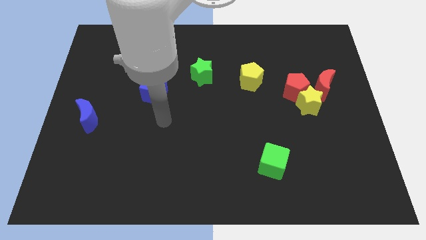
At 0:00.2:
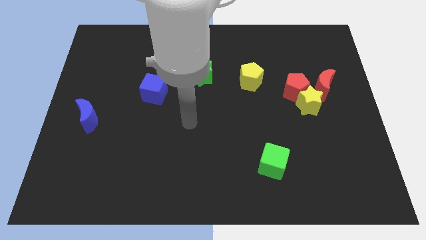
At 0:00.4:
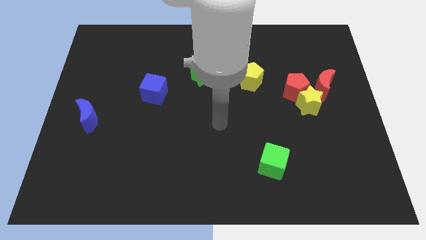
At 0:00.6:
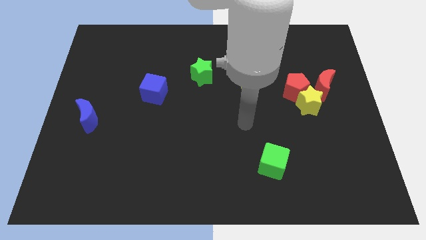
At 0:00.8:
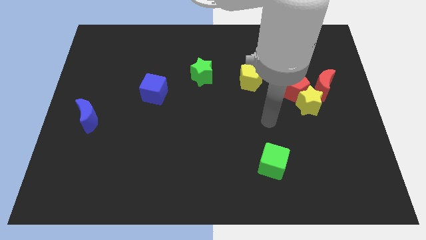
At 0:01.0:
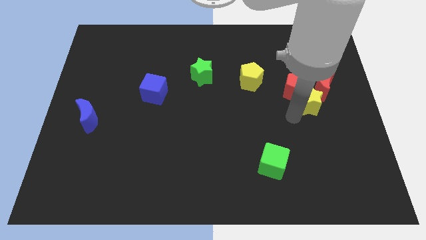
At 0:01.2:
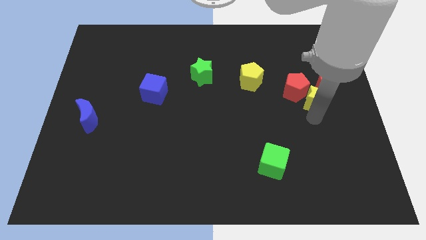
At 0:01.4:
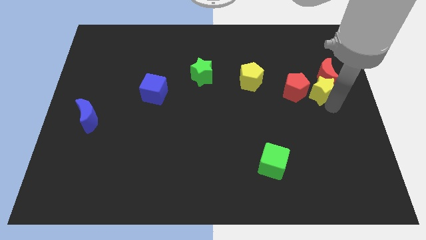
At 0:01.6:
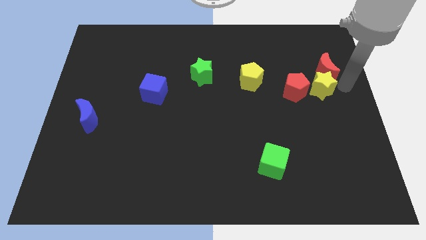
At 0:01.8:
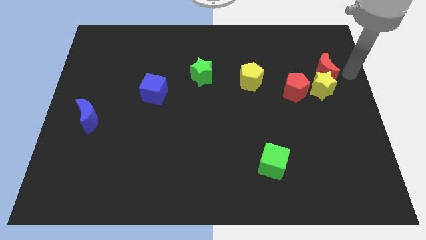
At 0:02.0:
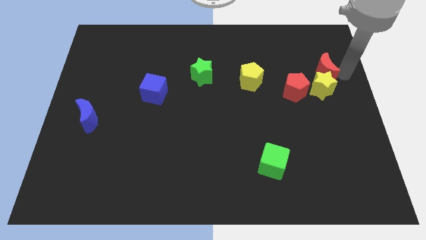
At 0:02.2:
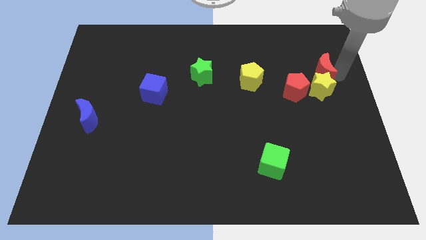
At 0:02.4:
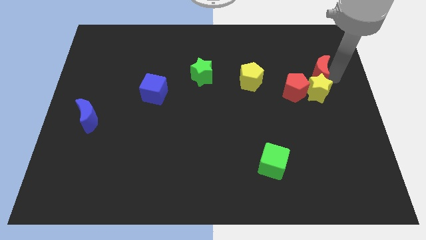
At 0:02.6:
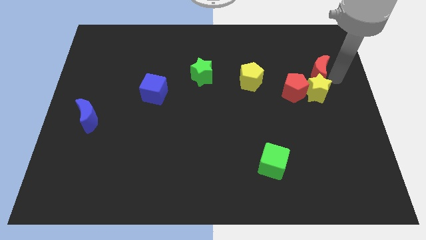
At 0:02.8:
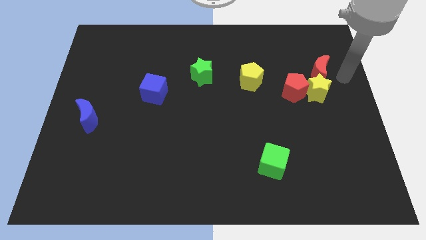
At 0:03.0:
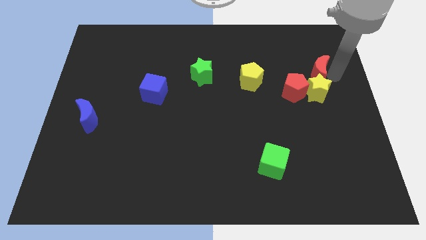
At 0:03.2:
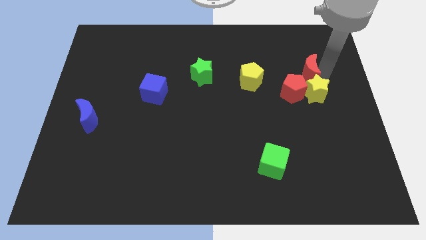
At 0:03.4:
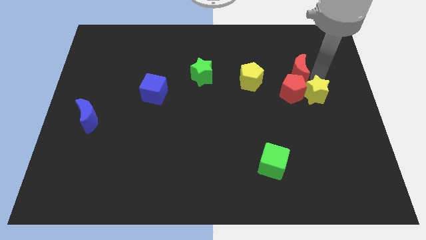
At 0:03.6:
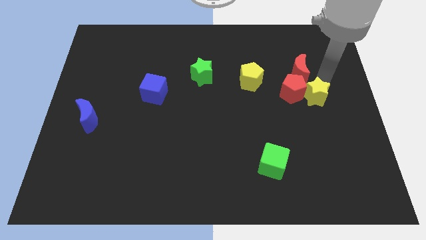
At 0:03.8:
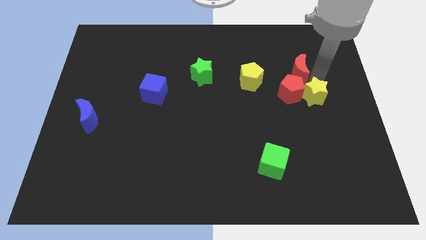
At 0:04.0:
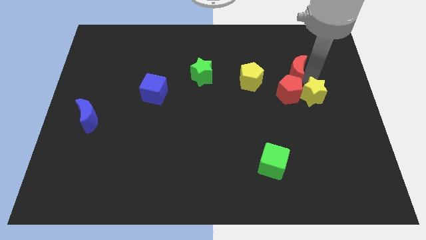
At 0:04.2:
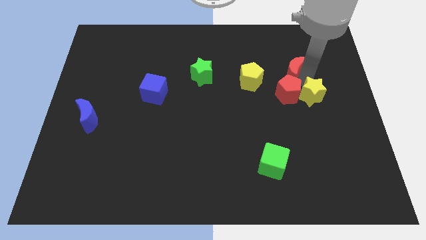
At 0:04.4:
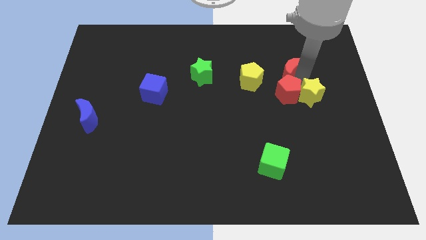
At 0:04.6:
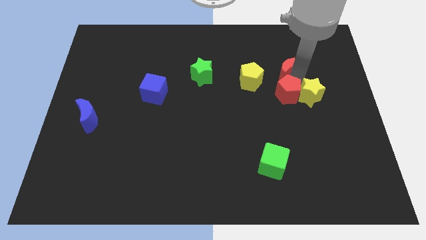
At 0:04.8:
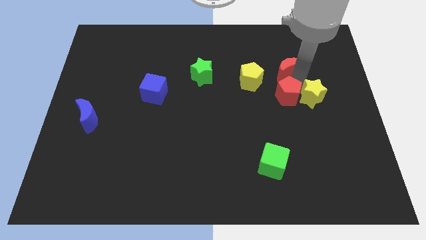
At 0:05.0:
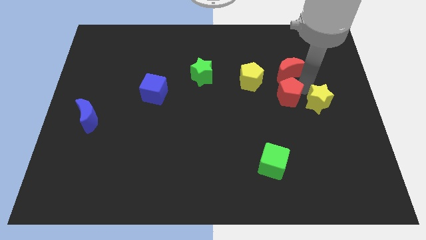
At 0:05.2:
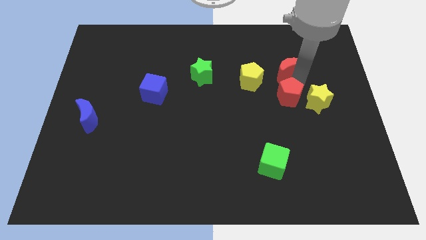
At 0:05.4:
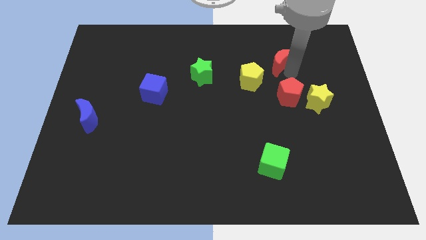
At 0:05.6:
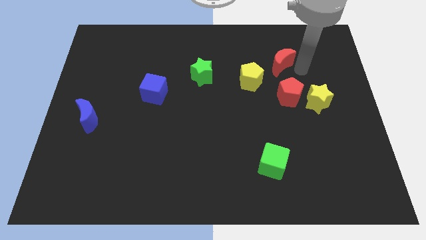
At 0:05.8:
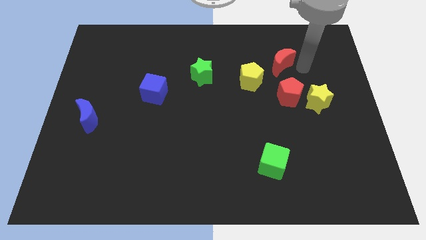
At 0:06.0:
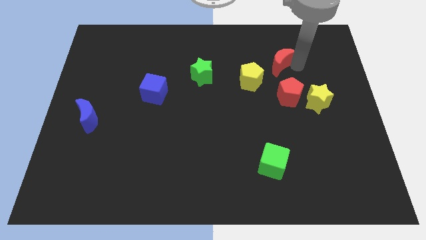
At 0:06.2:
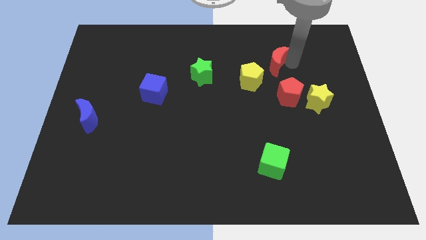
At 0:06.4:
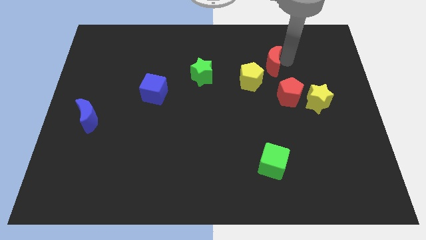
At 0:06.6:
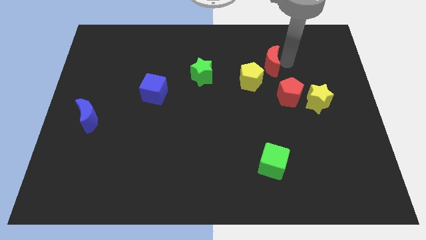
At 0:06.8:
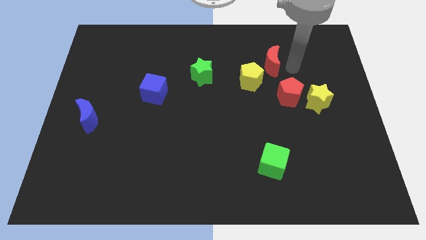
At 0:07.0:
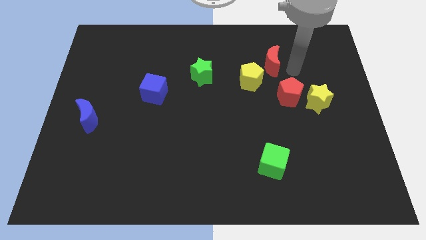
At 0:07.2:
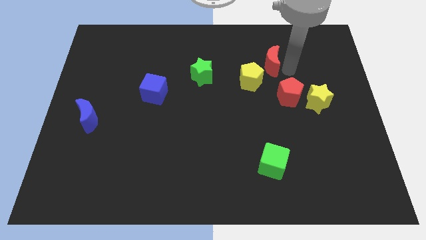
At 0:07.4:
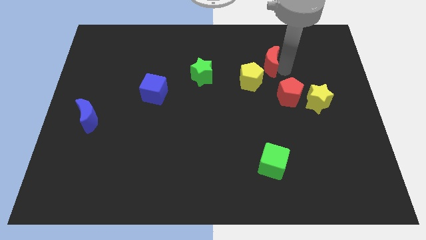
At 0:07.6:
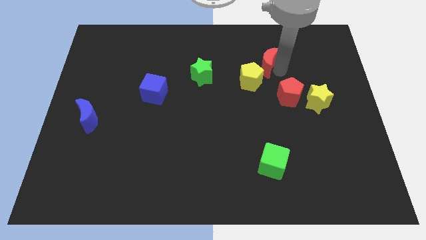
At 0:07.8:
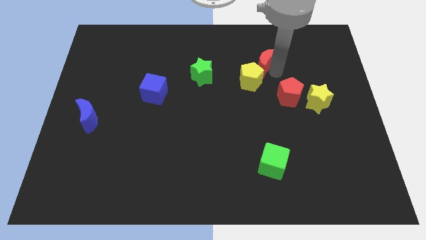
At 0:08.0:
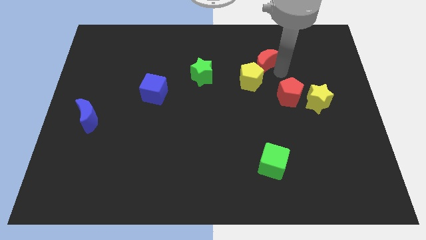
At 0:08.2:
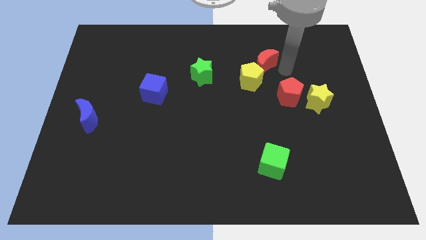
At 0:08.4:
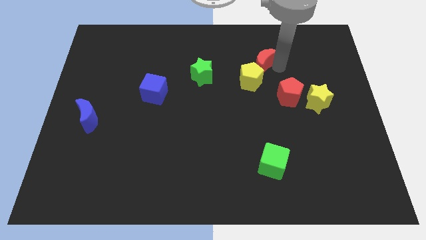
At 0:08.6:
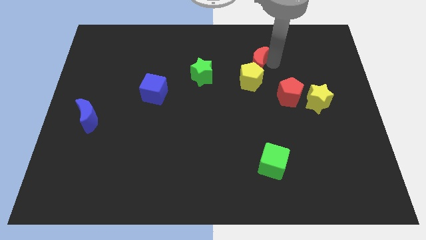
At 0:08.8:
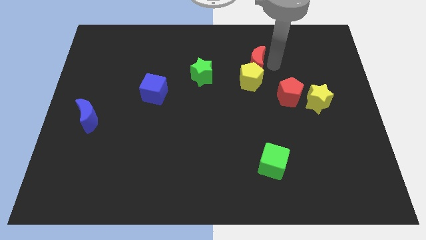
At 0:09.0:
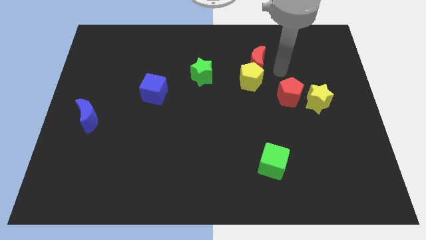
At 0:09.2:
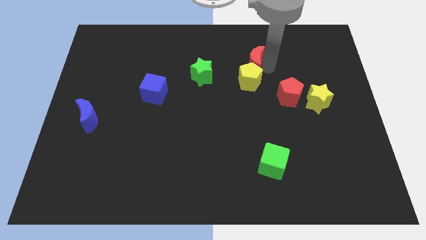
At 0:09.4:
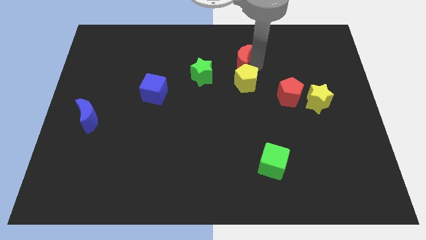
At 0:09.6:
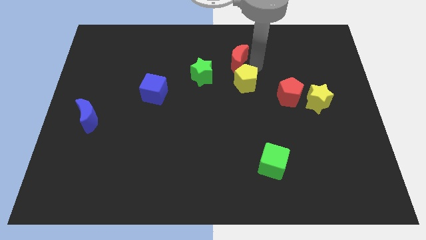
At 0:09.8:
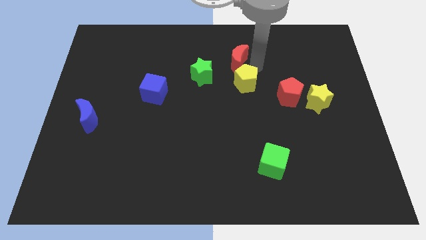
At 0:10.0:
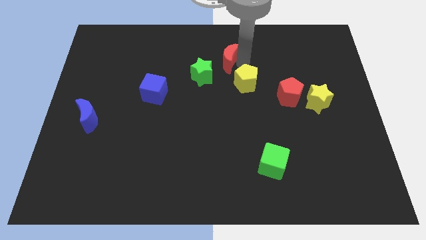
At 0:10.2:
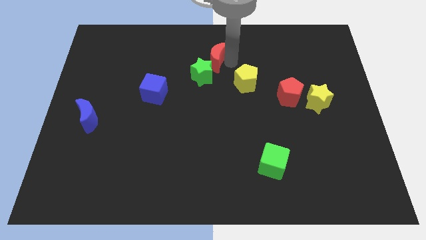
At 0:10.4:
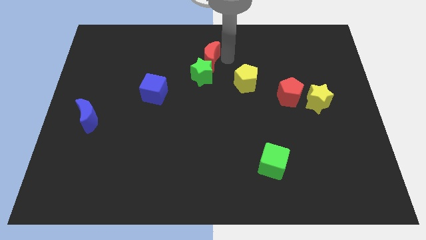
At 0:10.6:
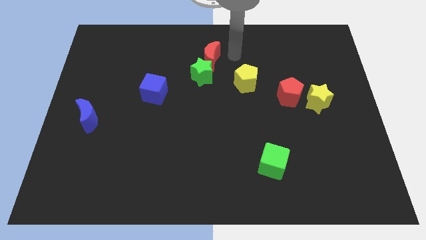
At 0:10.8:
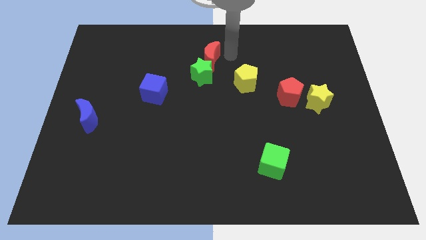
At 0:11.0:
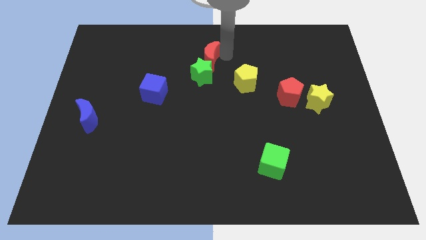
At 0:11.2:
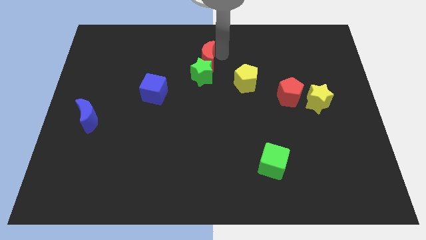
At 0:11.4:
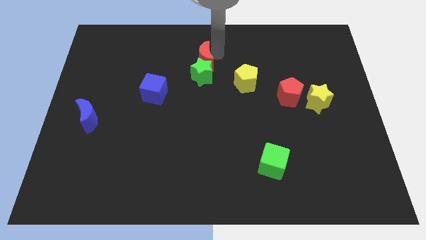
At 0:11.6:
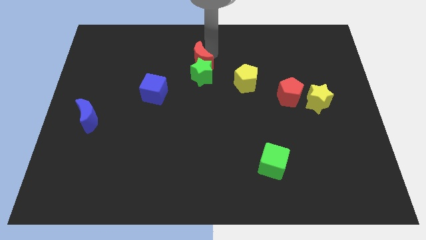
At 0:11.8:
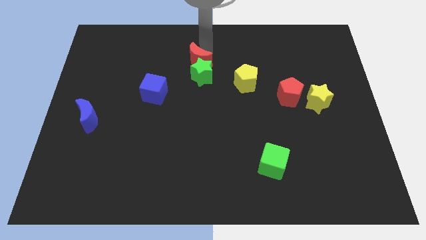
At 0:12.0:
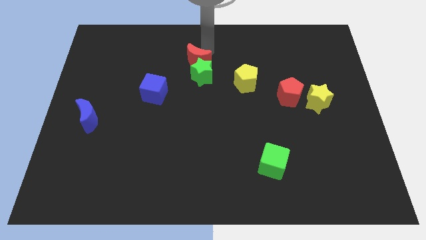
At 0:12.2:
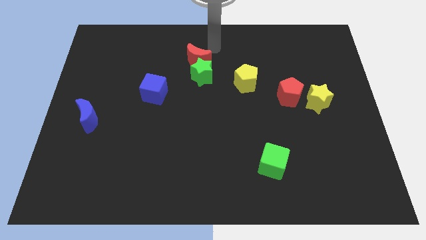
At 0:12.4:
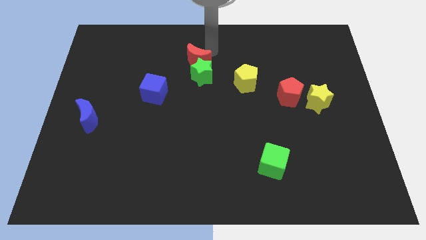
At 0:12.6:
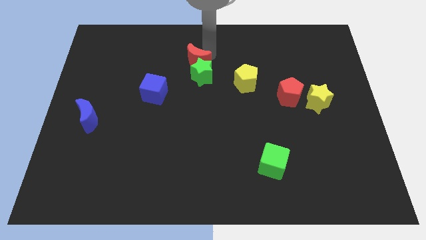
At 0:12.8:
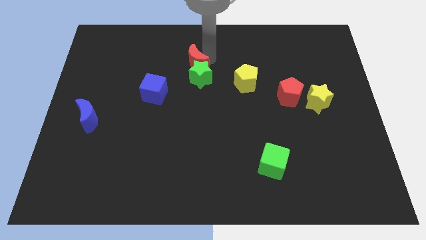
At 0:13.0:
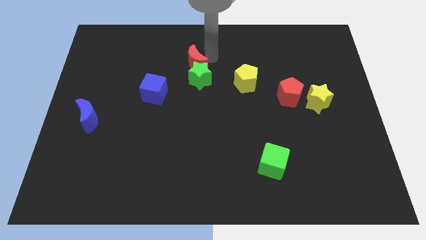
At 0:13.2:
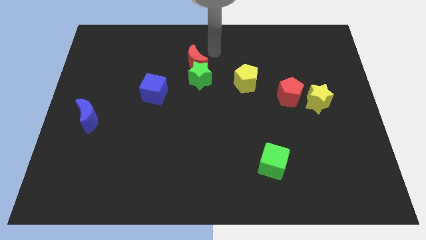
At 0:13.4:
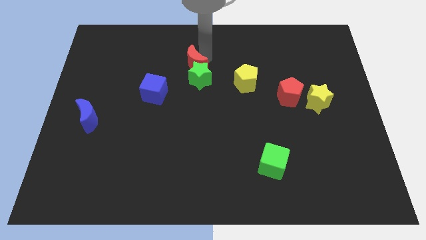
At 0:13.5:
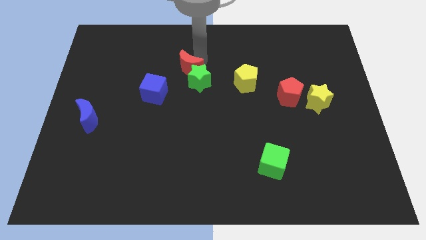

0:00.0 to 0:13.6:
put the red moon to the top right of the blue cube
